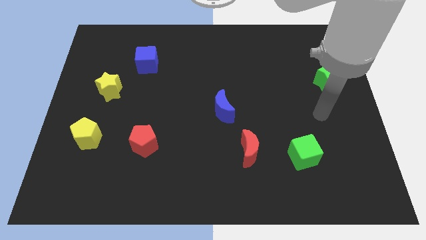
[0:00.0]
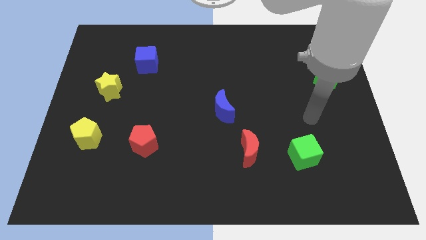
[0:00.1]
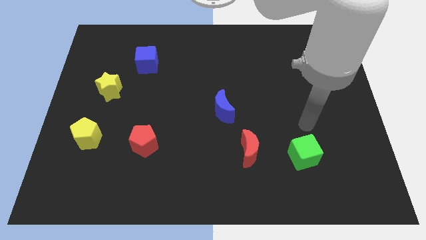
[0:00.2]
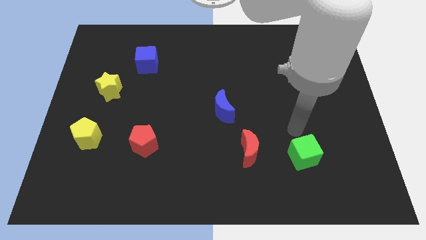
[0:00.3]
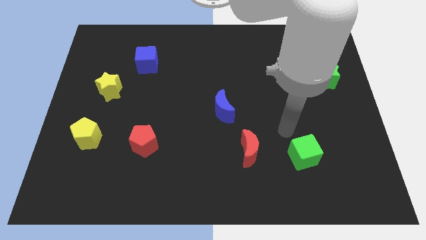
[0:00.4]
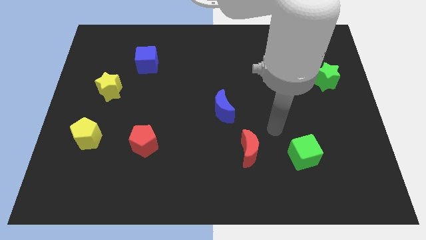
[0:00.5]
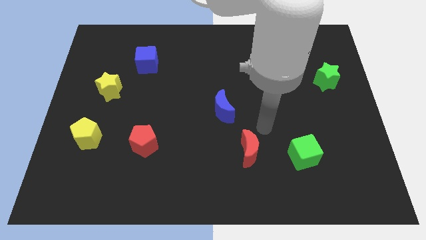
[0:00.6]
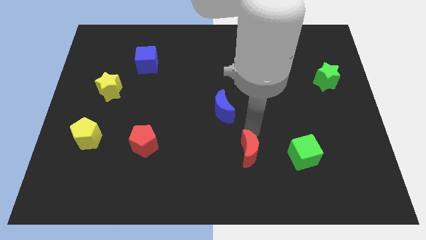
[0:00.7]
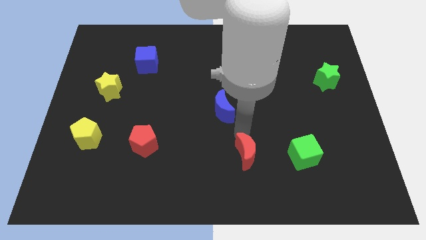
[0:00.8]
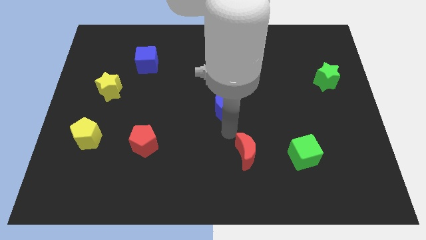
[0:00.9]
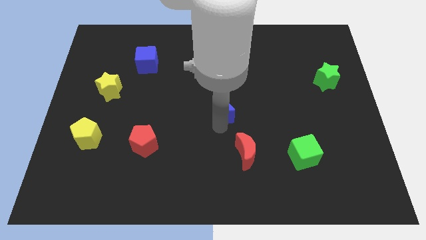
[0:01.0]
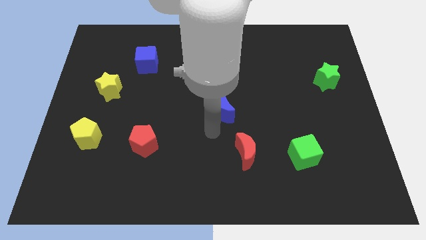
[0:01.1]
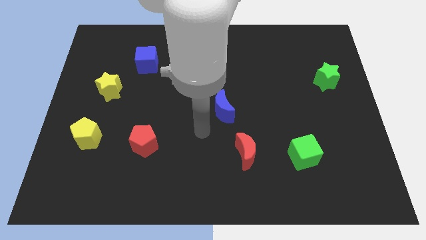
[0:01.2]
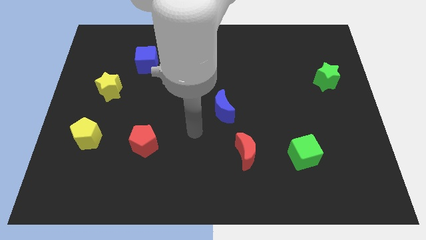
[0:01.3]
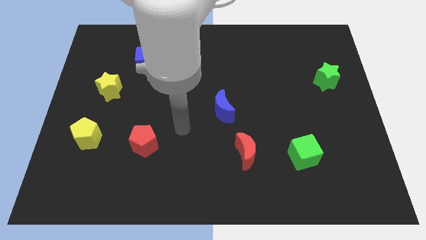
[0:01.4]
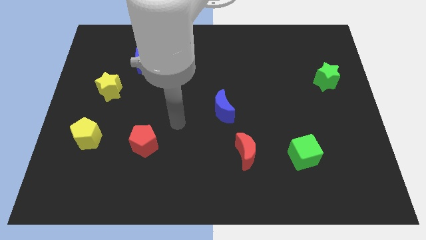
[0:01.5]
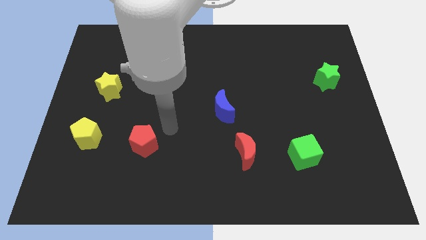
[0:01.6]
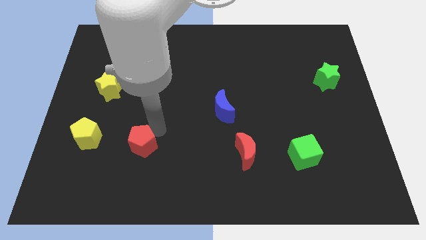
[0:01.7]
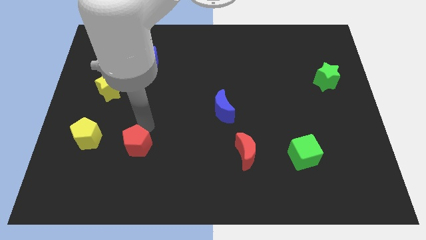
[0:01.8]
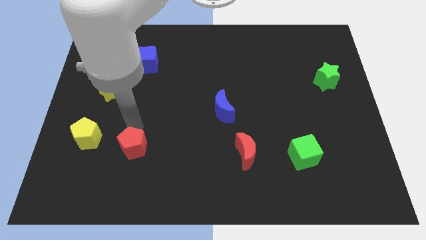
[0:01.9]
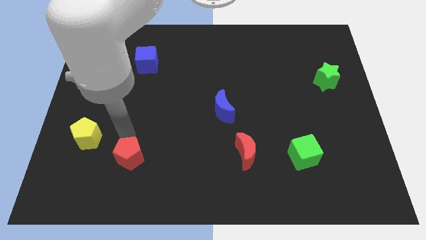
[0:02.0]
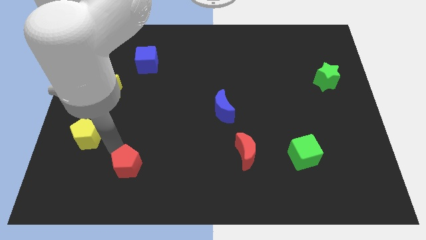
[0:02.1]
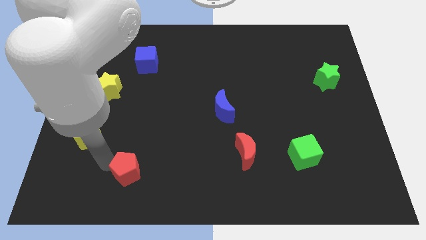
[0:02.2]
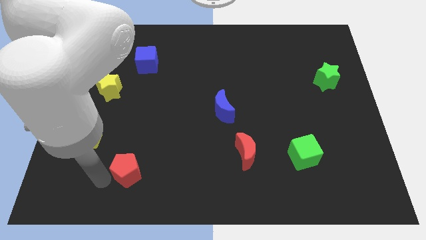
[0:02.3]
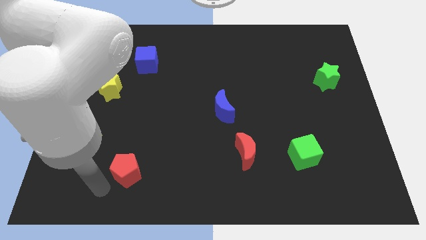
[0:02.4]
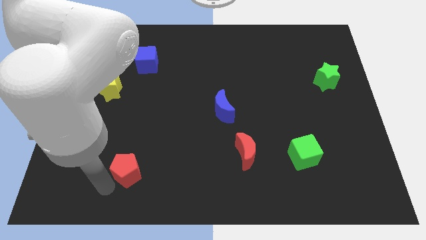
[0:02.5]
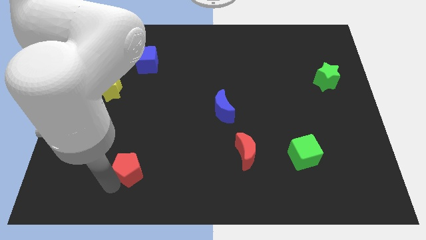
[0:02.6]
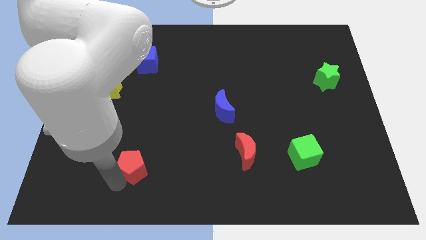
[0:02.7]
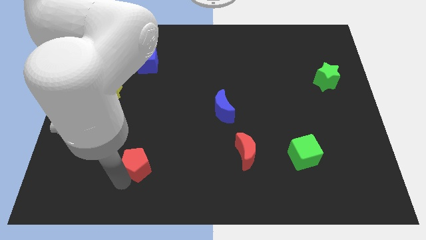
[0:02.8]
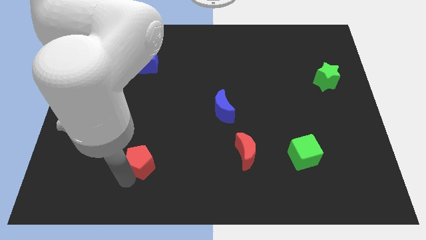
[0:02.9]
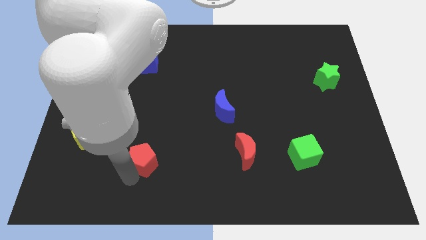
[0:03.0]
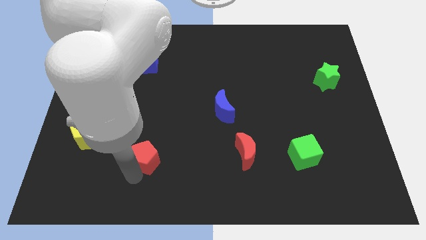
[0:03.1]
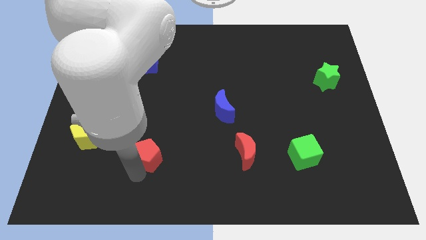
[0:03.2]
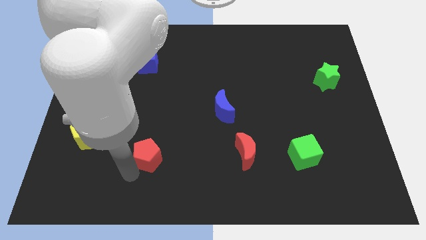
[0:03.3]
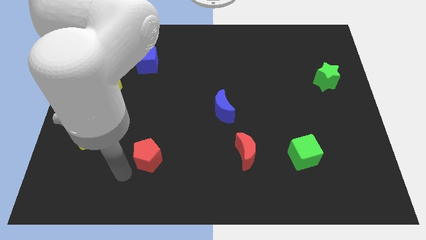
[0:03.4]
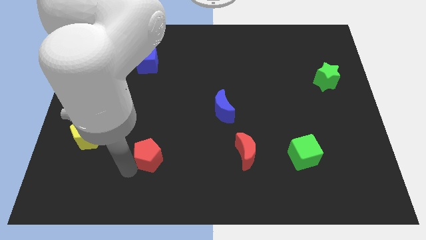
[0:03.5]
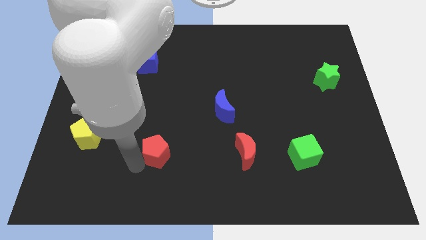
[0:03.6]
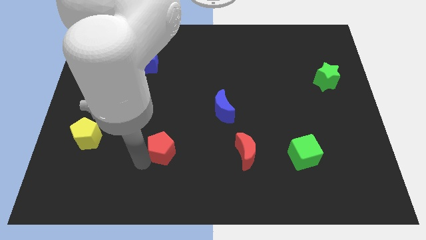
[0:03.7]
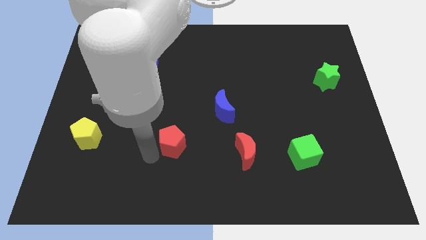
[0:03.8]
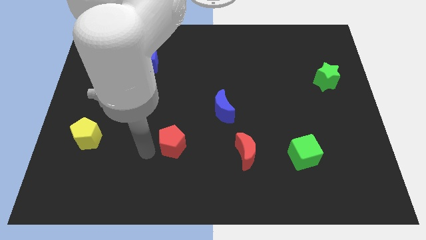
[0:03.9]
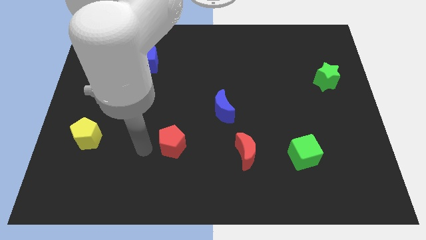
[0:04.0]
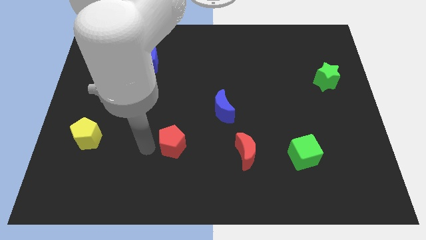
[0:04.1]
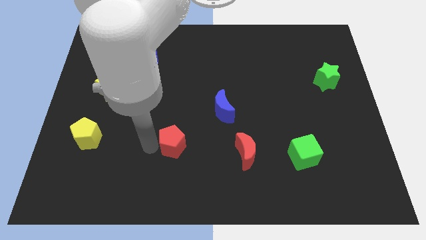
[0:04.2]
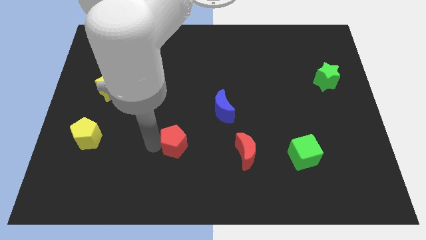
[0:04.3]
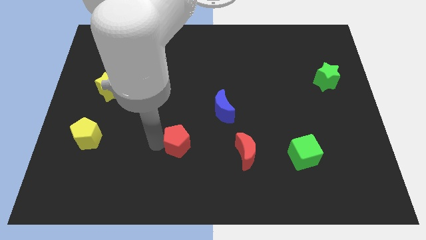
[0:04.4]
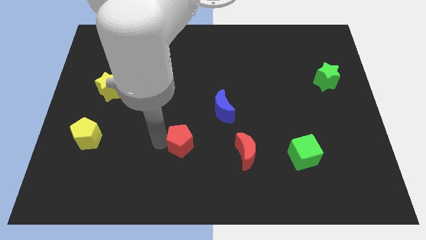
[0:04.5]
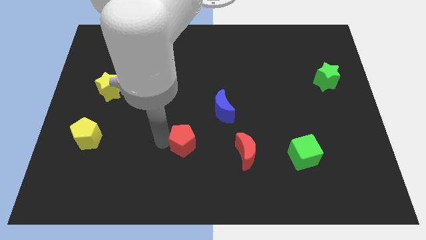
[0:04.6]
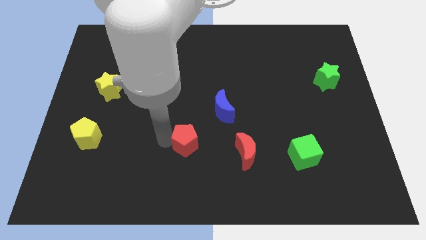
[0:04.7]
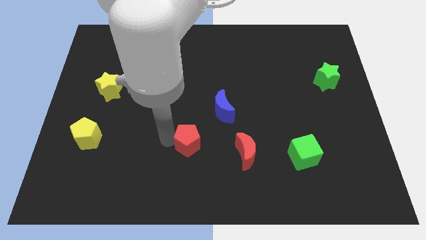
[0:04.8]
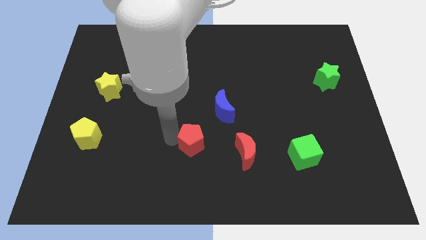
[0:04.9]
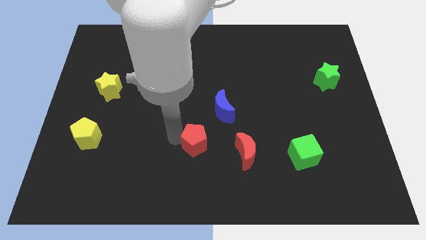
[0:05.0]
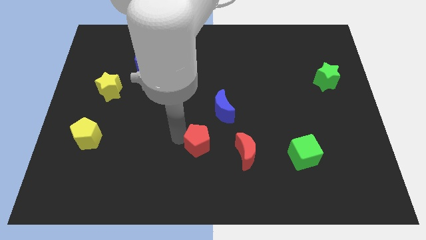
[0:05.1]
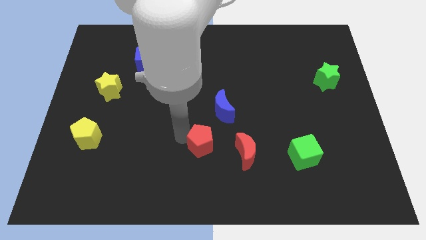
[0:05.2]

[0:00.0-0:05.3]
put the red pentagon to the bottom of the blue moon

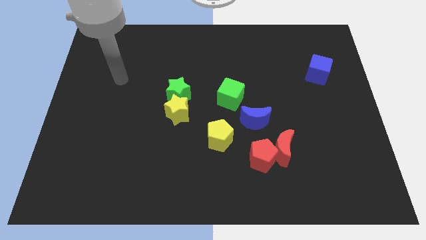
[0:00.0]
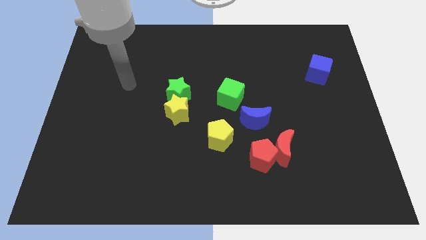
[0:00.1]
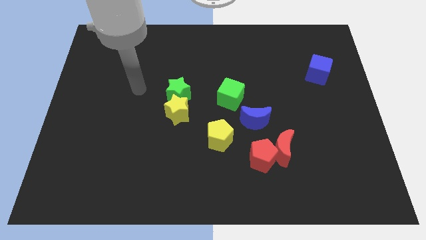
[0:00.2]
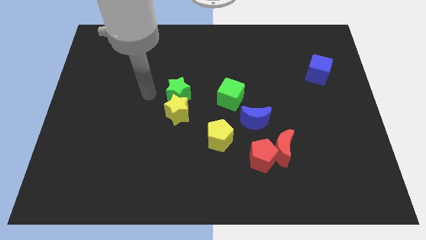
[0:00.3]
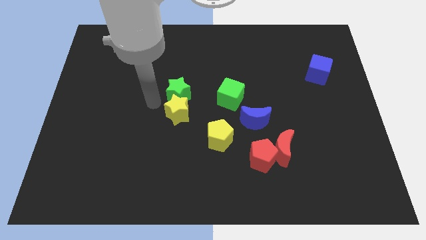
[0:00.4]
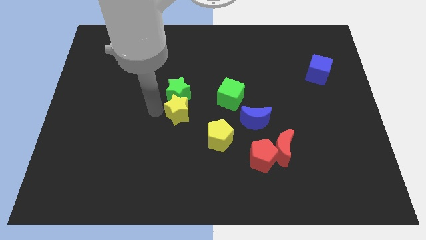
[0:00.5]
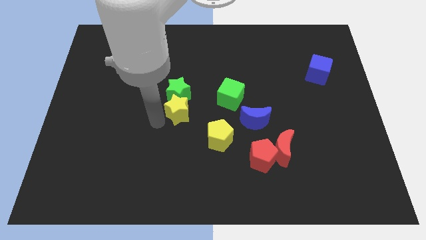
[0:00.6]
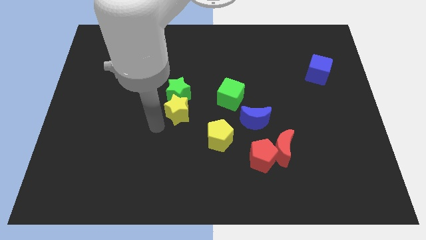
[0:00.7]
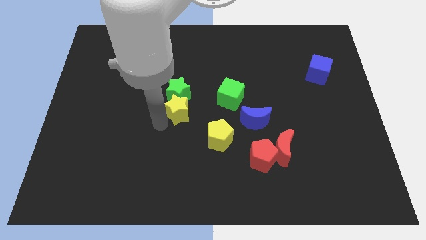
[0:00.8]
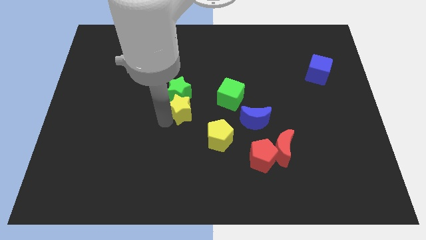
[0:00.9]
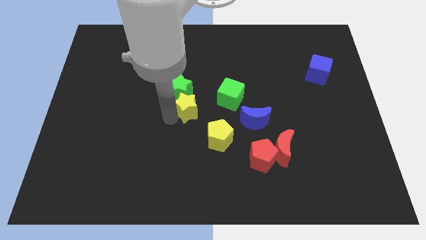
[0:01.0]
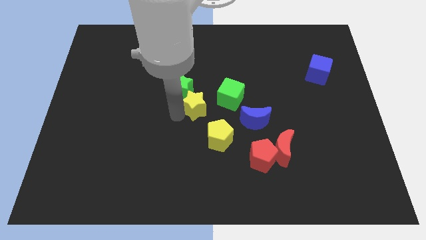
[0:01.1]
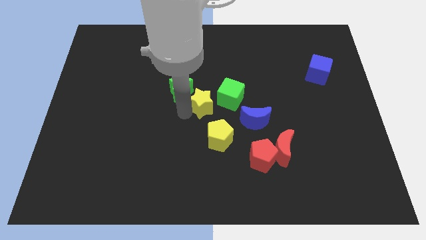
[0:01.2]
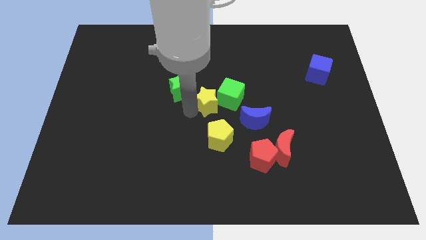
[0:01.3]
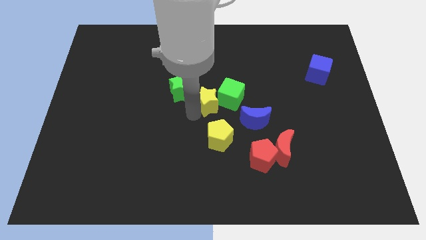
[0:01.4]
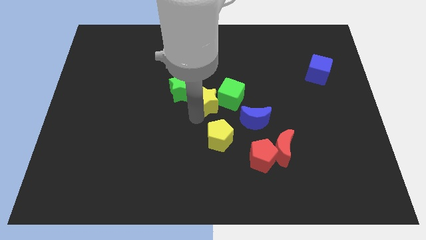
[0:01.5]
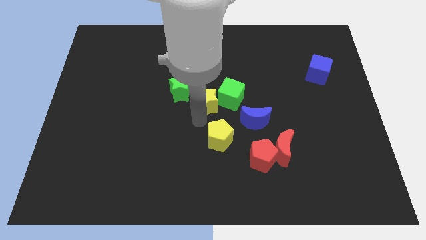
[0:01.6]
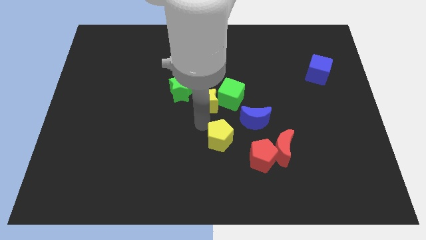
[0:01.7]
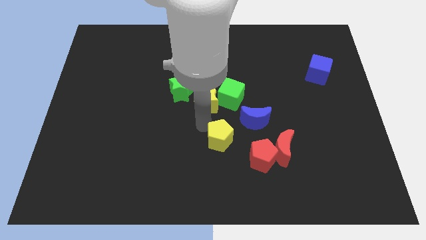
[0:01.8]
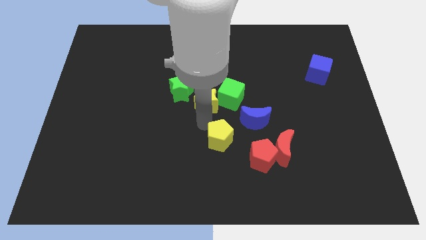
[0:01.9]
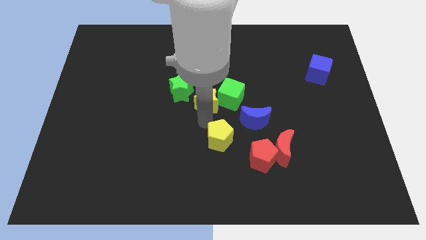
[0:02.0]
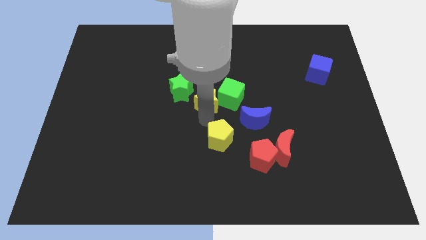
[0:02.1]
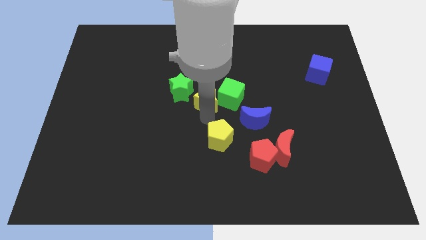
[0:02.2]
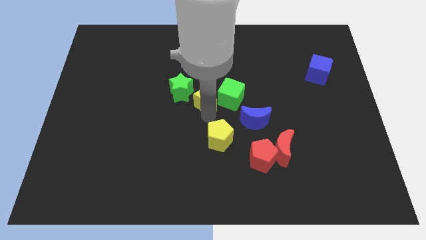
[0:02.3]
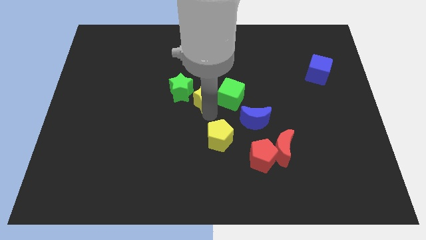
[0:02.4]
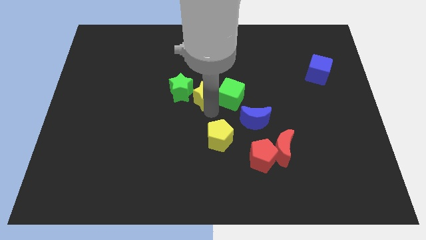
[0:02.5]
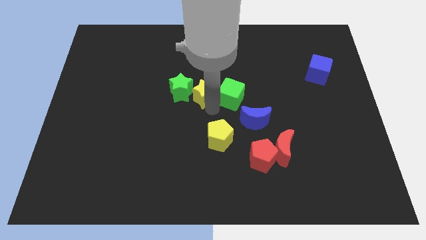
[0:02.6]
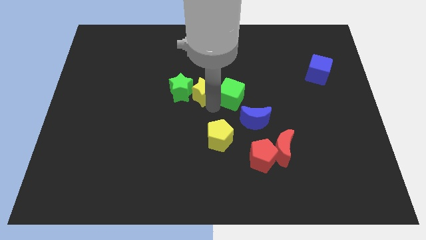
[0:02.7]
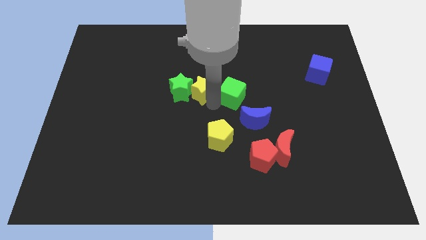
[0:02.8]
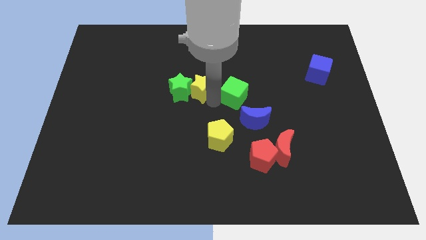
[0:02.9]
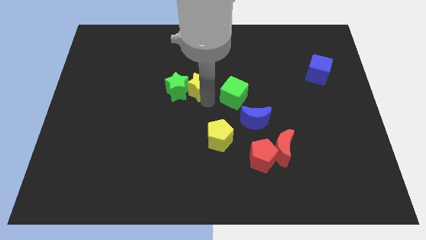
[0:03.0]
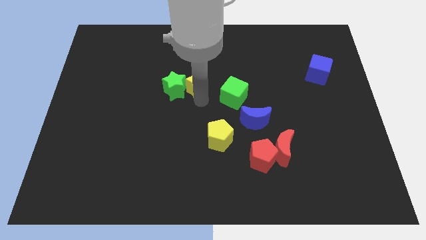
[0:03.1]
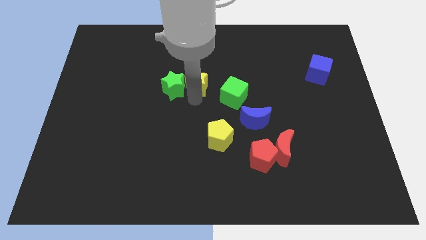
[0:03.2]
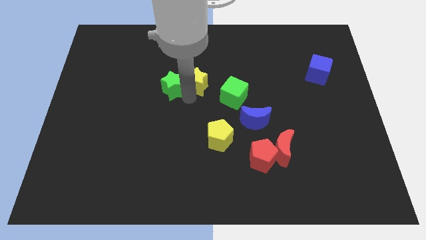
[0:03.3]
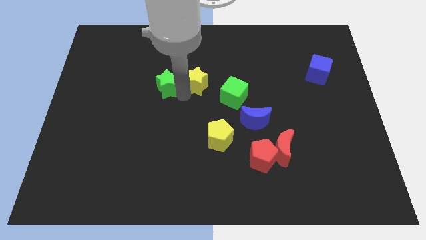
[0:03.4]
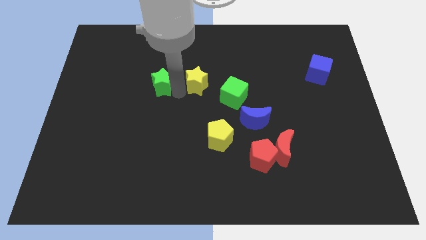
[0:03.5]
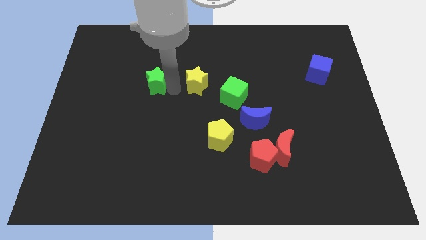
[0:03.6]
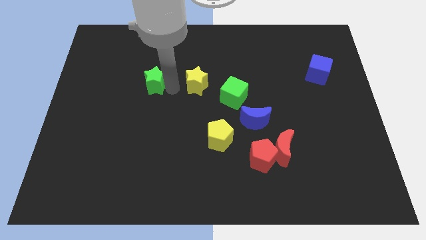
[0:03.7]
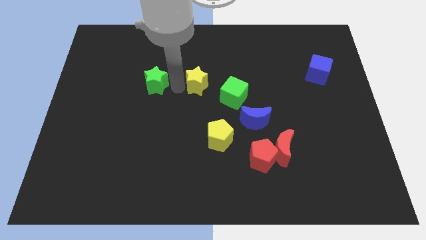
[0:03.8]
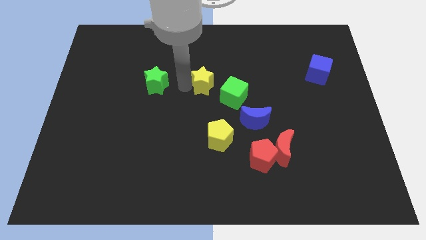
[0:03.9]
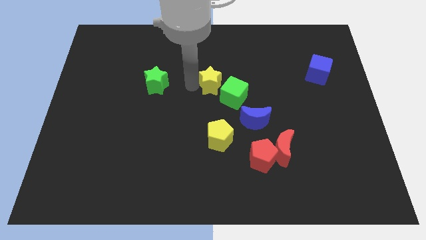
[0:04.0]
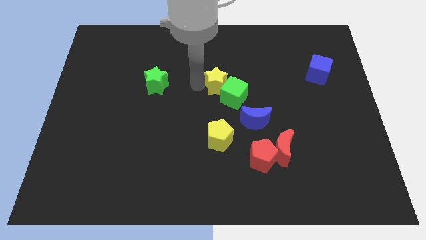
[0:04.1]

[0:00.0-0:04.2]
put the yellow star to the top of the green cube
